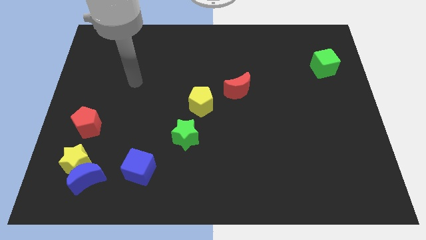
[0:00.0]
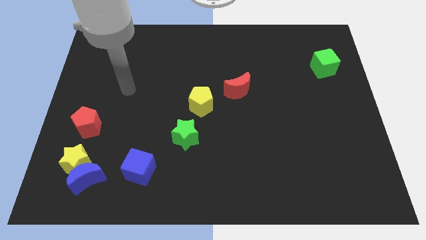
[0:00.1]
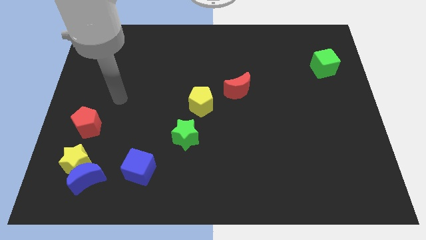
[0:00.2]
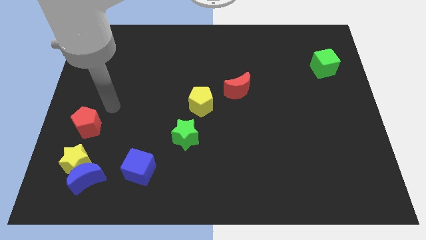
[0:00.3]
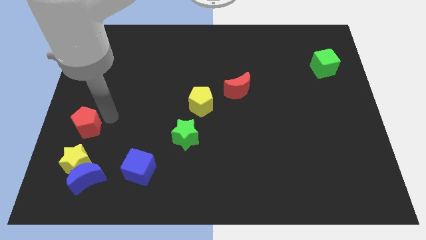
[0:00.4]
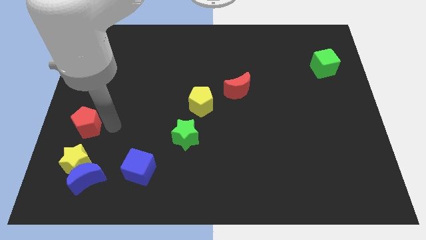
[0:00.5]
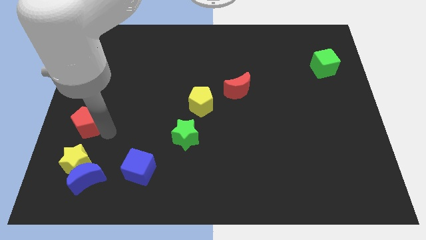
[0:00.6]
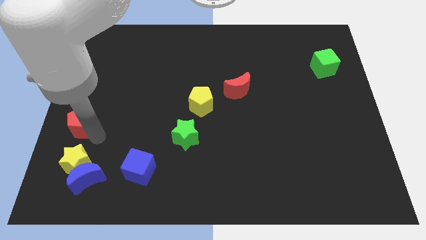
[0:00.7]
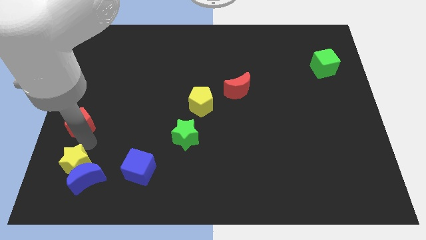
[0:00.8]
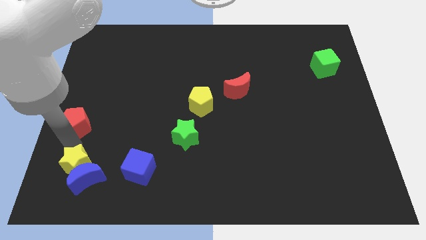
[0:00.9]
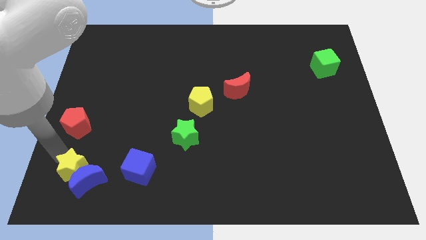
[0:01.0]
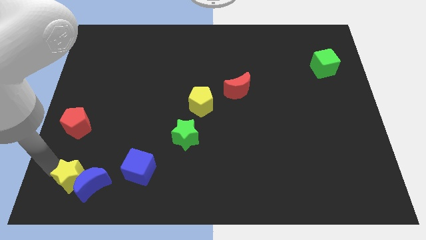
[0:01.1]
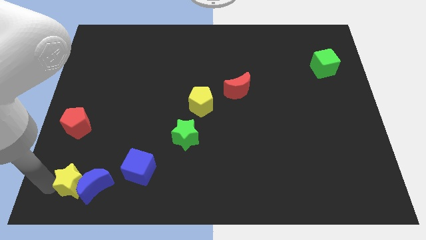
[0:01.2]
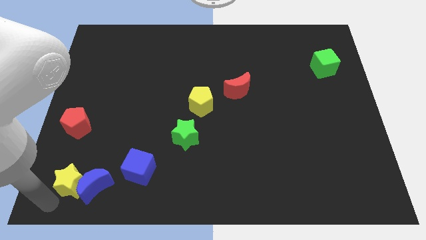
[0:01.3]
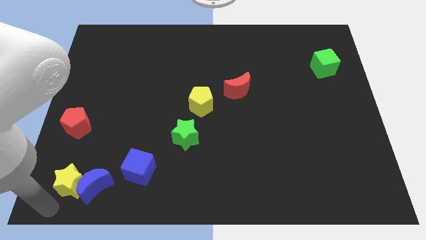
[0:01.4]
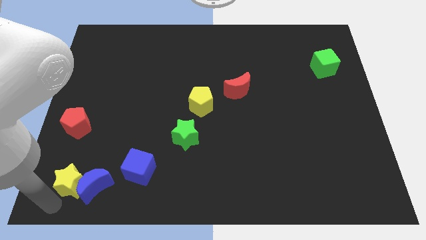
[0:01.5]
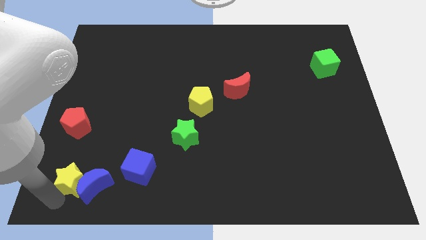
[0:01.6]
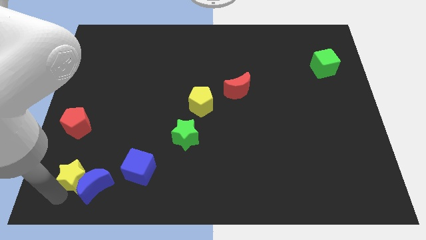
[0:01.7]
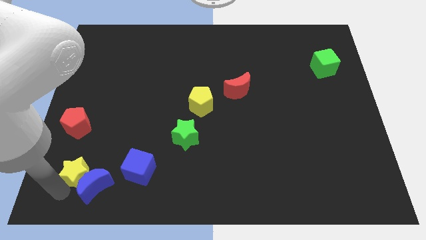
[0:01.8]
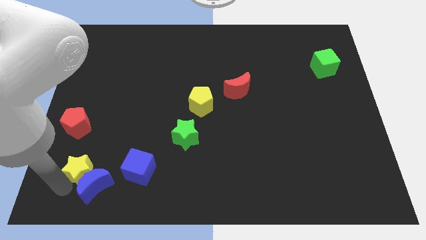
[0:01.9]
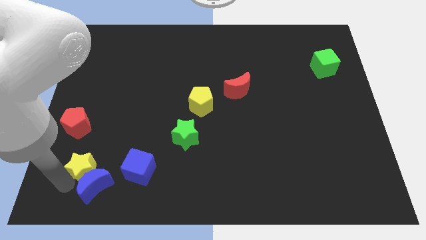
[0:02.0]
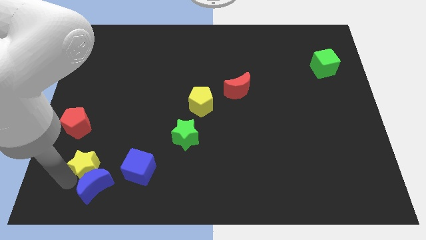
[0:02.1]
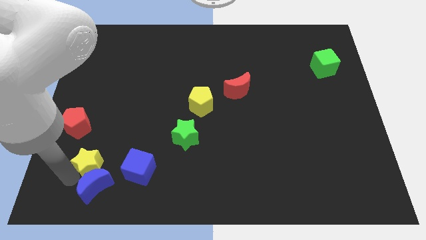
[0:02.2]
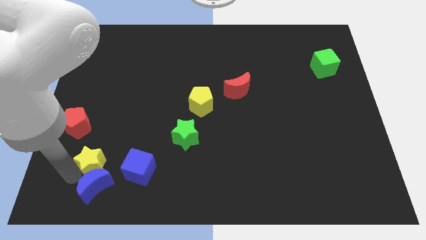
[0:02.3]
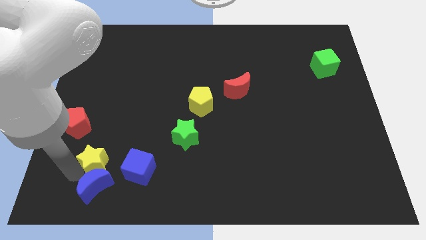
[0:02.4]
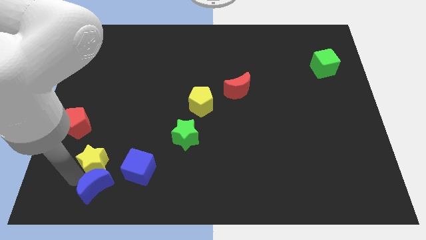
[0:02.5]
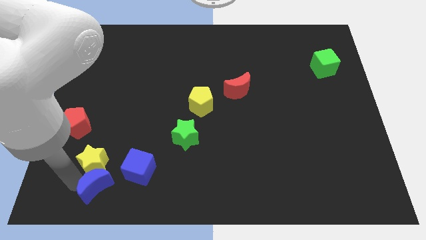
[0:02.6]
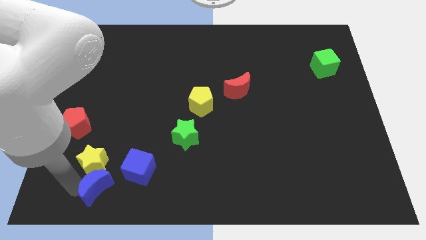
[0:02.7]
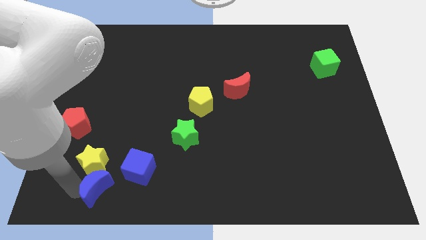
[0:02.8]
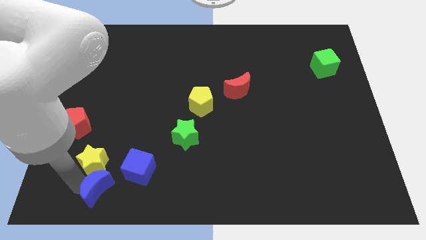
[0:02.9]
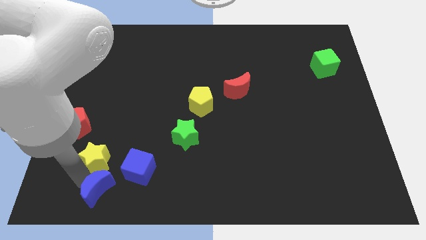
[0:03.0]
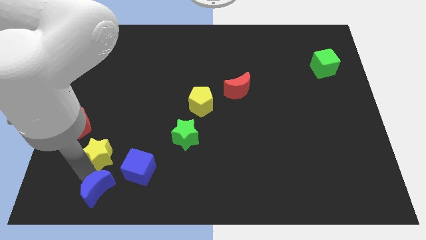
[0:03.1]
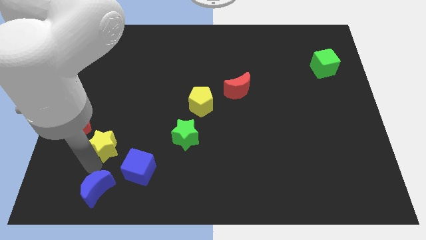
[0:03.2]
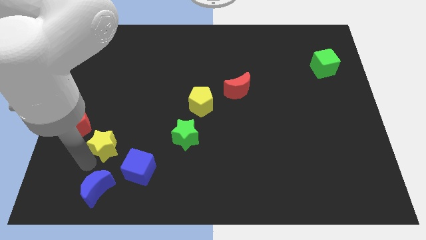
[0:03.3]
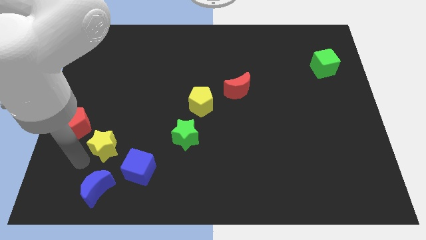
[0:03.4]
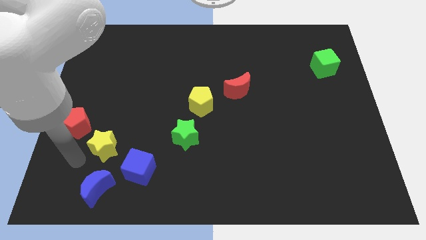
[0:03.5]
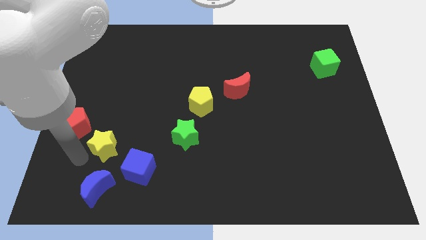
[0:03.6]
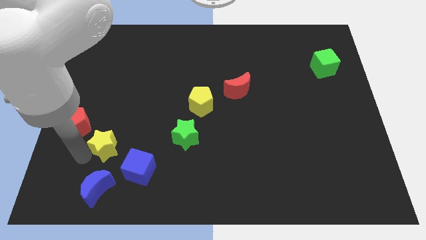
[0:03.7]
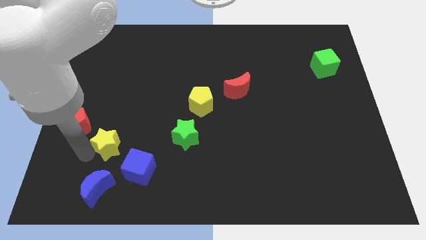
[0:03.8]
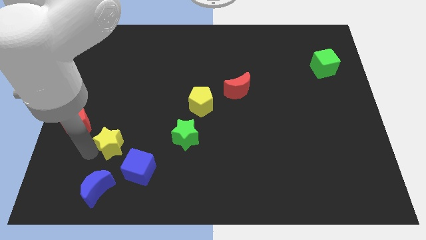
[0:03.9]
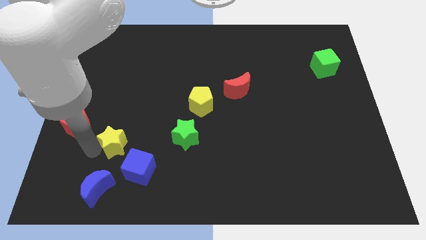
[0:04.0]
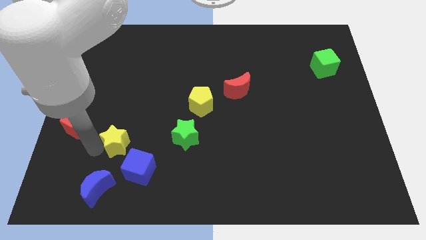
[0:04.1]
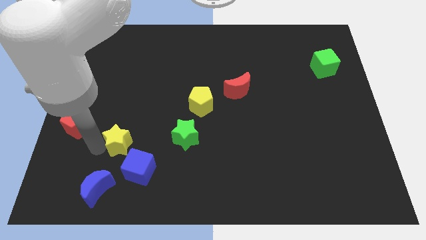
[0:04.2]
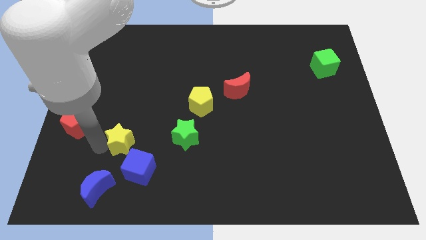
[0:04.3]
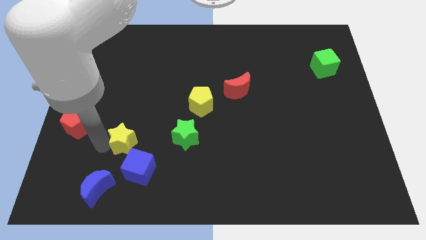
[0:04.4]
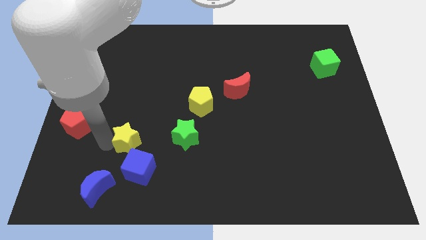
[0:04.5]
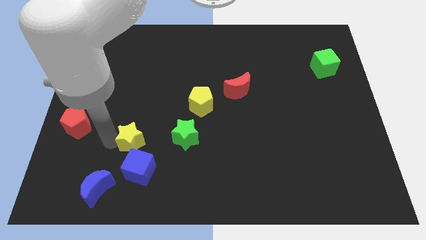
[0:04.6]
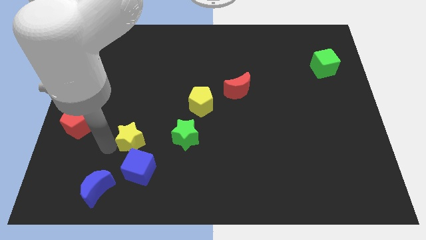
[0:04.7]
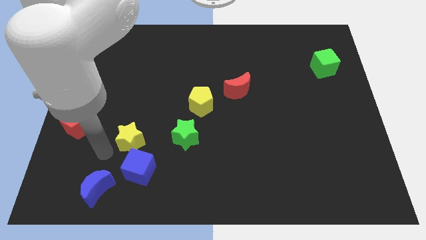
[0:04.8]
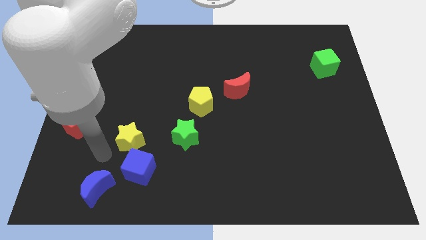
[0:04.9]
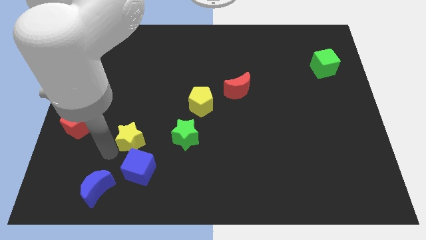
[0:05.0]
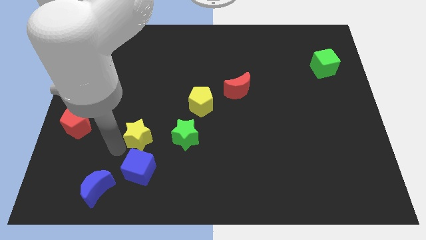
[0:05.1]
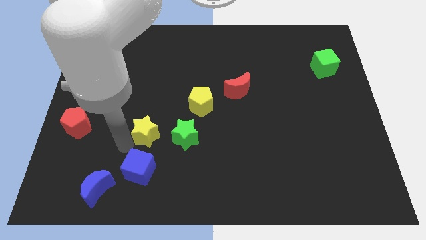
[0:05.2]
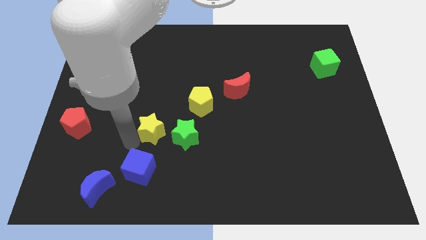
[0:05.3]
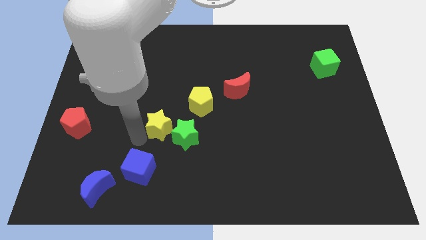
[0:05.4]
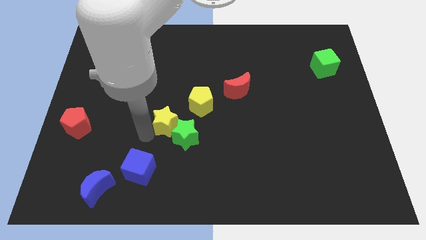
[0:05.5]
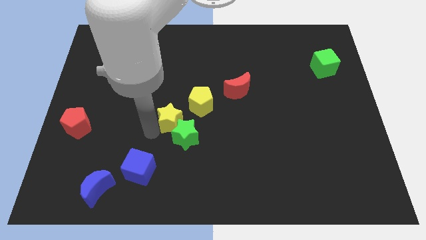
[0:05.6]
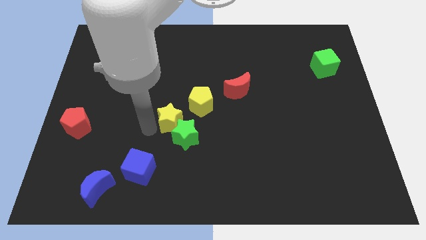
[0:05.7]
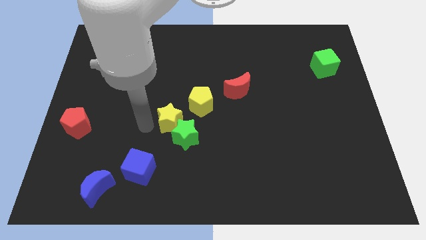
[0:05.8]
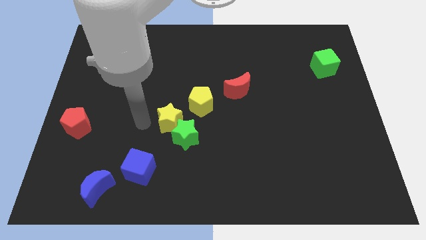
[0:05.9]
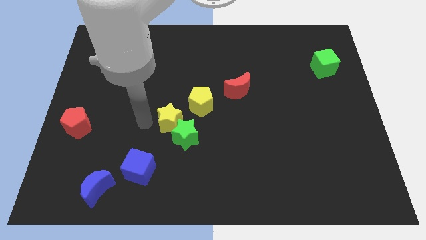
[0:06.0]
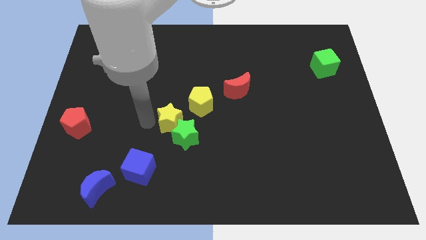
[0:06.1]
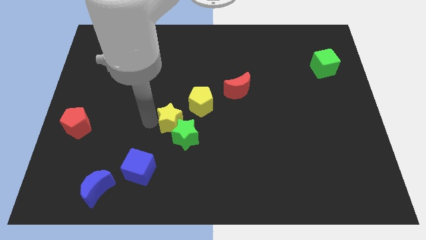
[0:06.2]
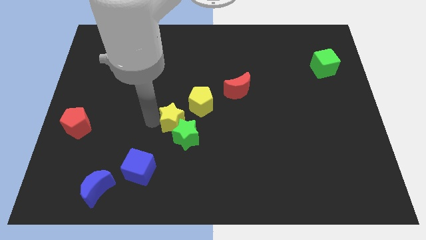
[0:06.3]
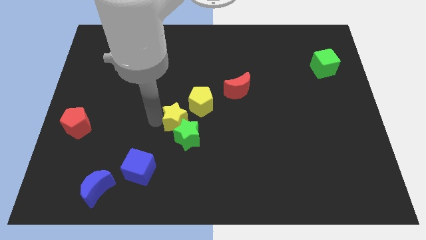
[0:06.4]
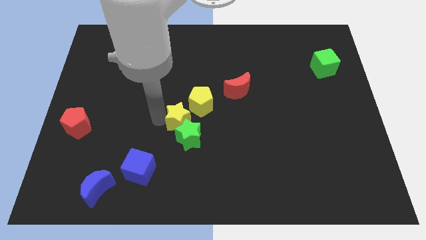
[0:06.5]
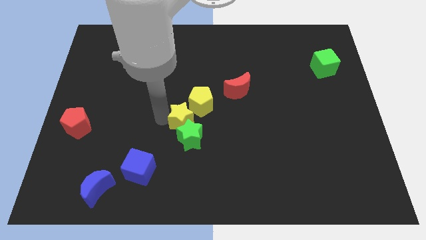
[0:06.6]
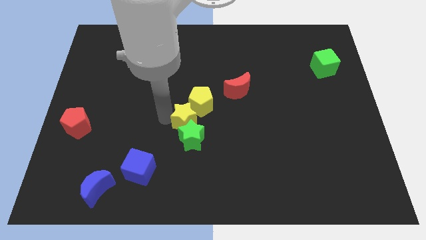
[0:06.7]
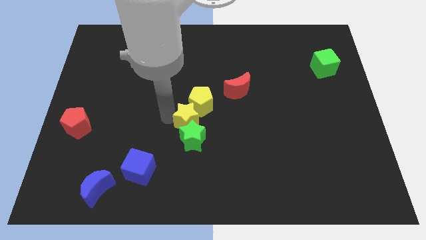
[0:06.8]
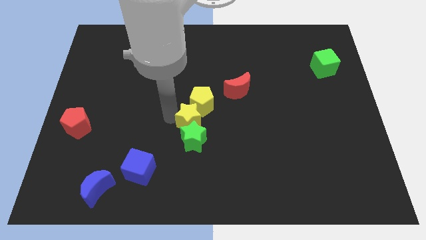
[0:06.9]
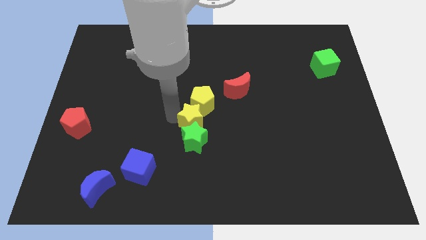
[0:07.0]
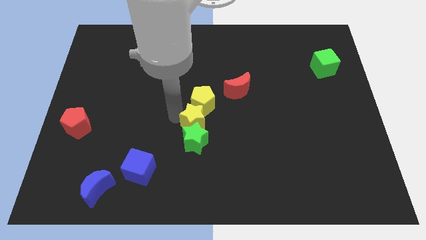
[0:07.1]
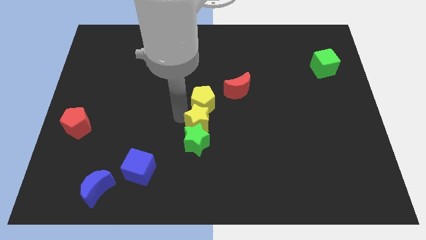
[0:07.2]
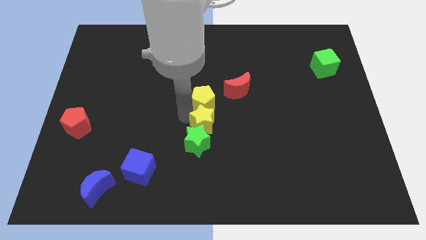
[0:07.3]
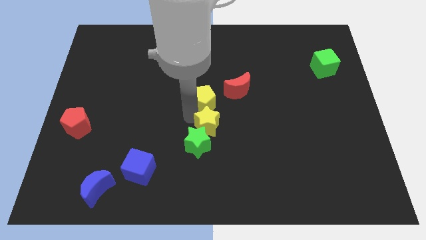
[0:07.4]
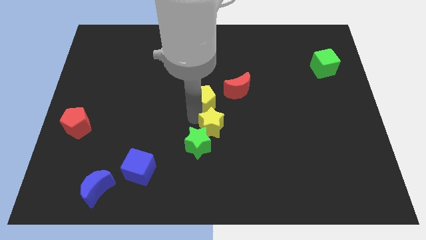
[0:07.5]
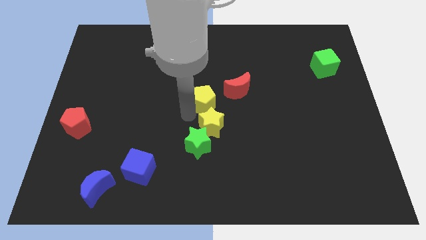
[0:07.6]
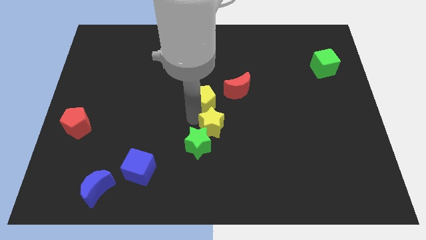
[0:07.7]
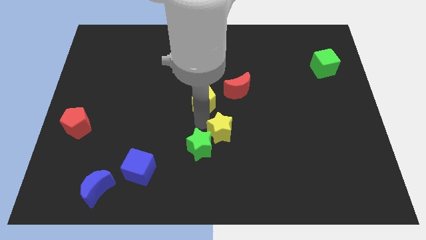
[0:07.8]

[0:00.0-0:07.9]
slide the yellow star right of the green star
